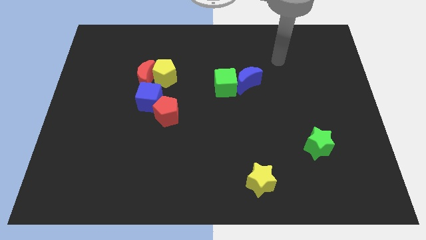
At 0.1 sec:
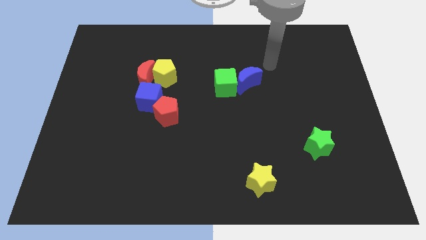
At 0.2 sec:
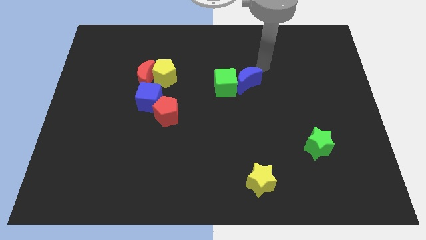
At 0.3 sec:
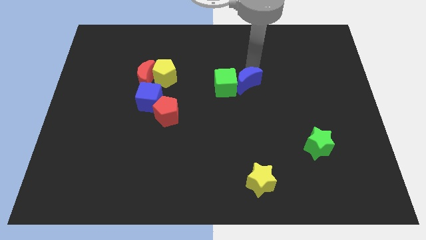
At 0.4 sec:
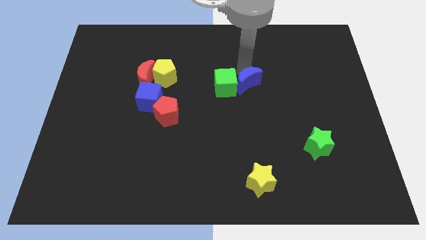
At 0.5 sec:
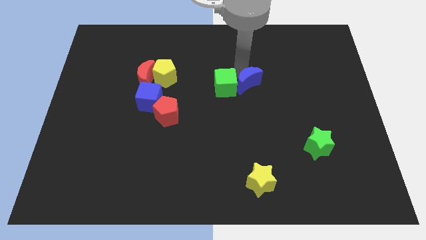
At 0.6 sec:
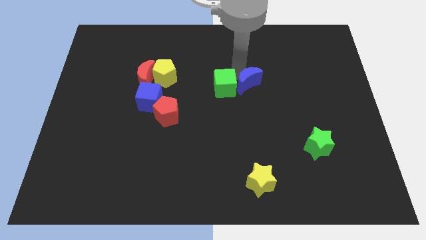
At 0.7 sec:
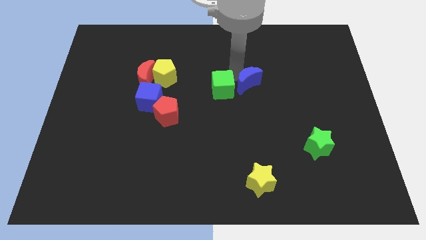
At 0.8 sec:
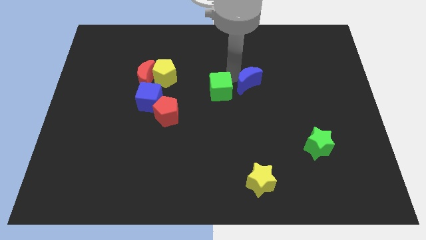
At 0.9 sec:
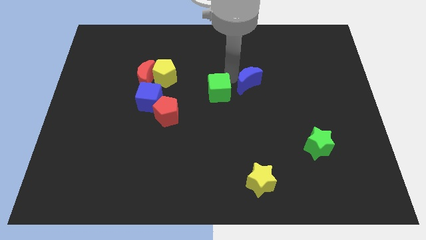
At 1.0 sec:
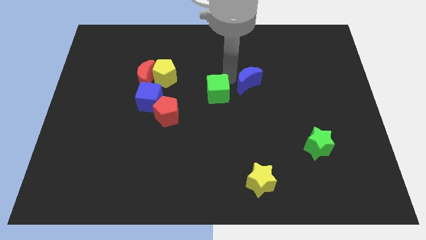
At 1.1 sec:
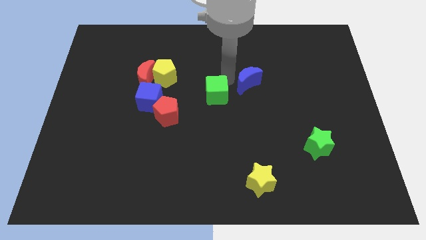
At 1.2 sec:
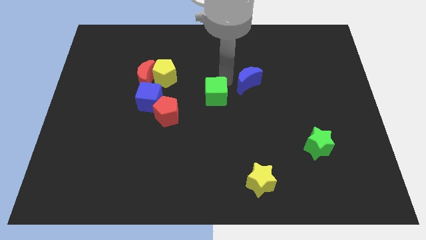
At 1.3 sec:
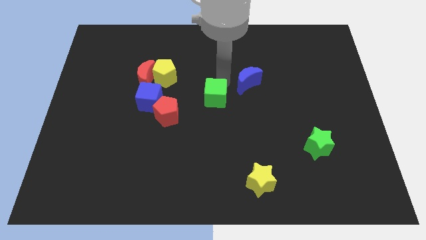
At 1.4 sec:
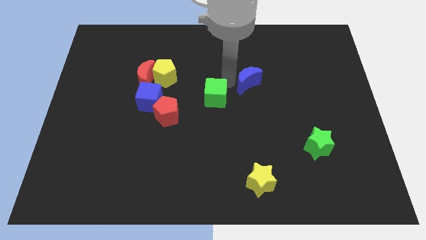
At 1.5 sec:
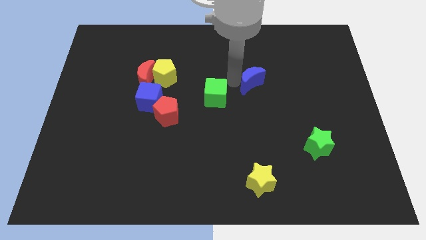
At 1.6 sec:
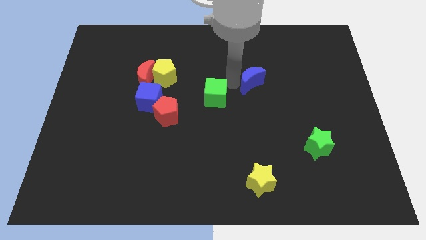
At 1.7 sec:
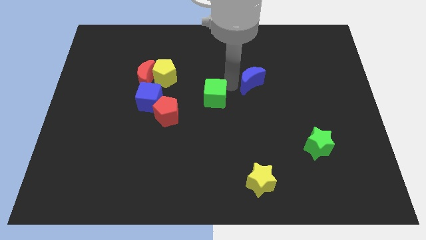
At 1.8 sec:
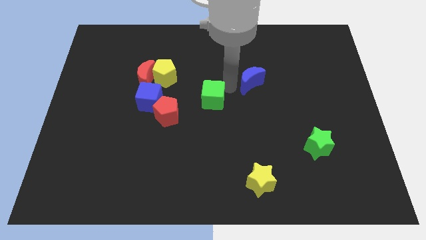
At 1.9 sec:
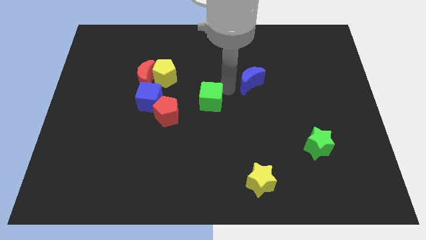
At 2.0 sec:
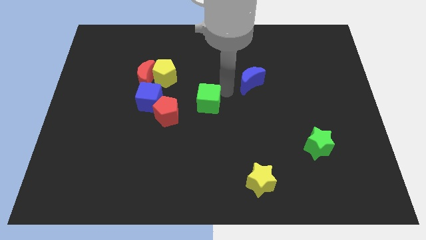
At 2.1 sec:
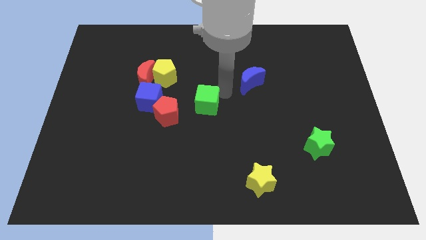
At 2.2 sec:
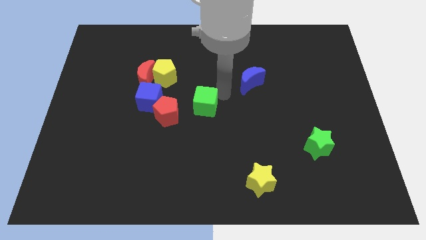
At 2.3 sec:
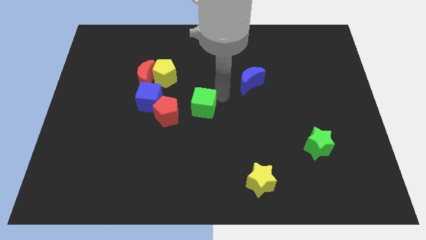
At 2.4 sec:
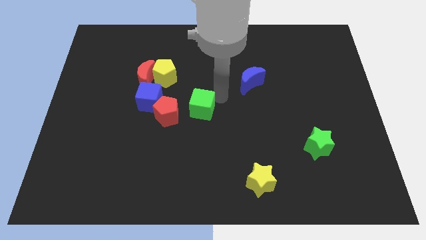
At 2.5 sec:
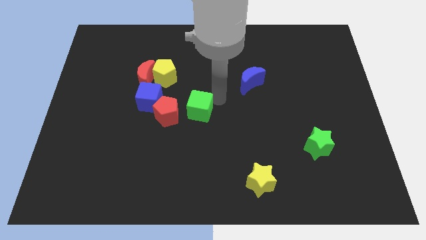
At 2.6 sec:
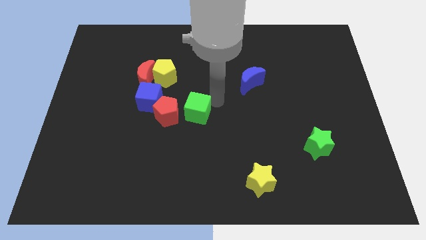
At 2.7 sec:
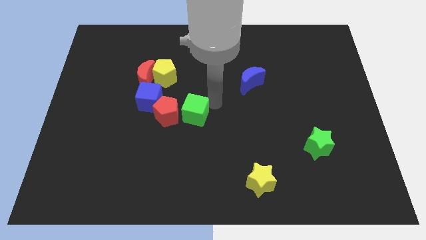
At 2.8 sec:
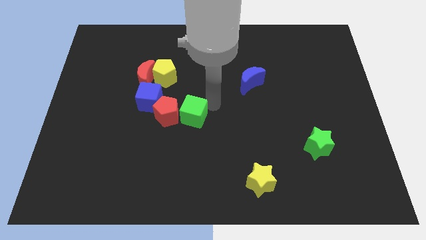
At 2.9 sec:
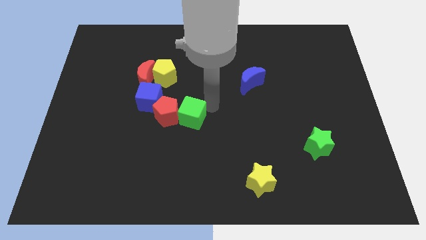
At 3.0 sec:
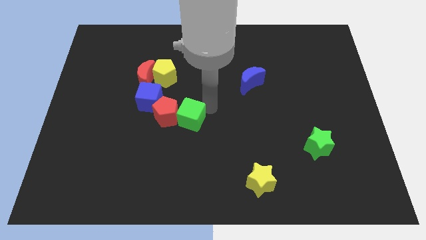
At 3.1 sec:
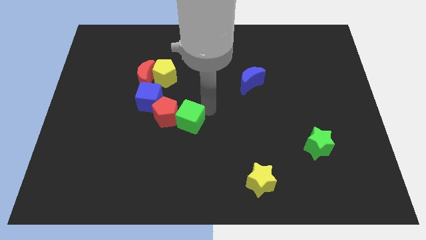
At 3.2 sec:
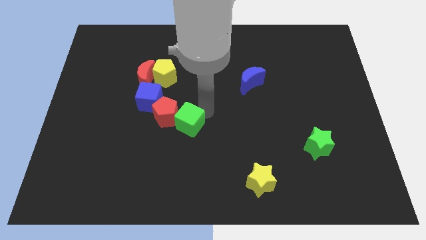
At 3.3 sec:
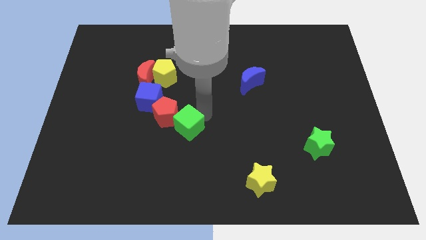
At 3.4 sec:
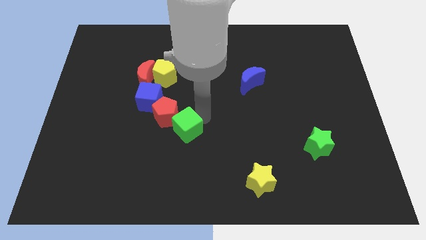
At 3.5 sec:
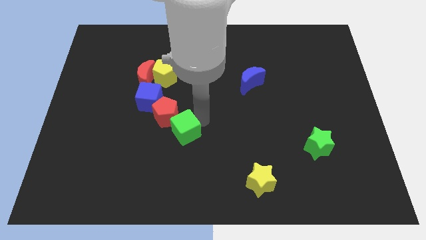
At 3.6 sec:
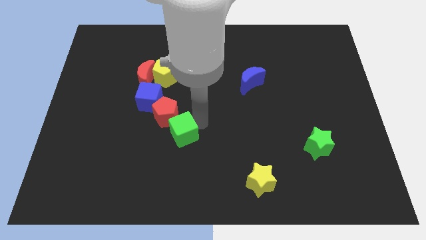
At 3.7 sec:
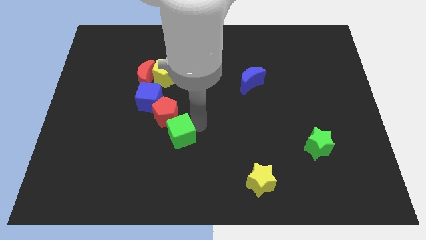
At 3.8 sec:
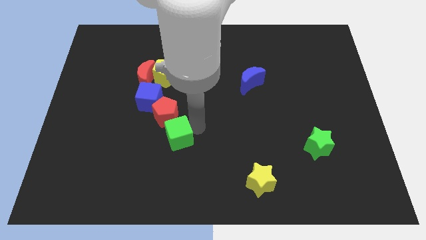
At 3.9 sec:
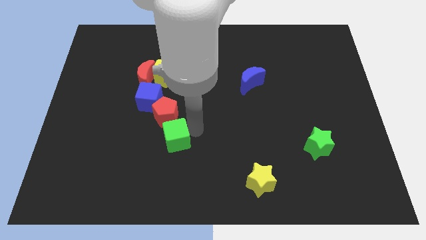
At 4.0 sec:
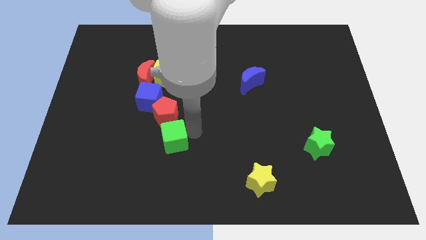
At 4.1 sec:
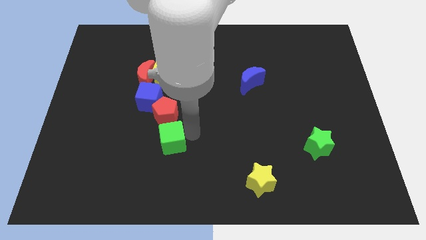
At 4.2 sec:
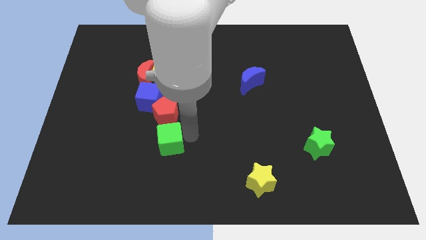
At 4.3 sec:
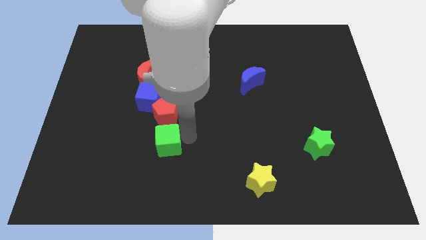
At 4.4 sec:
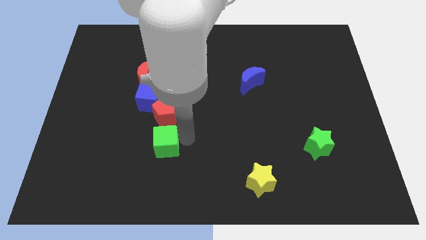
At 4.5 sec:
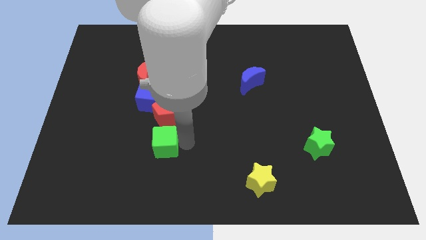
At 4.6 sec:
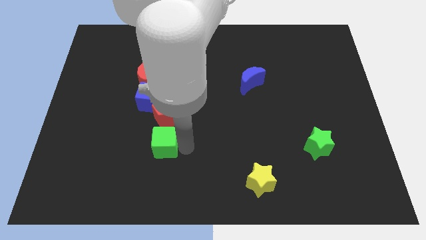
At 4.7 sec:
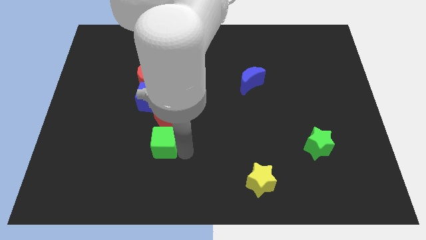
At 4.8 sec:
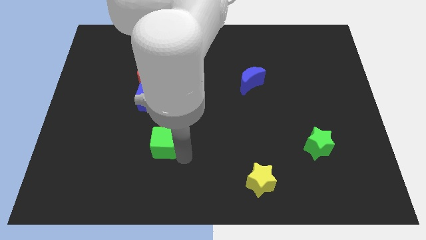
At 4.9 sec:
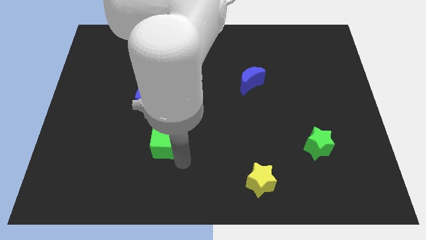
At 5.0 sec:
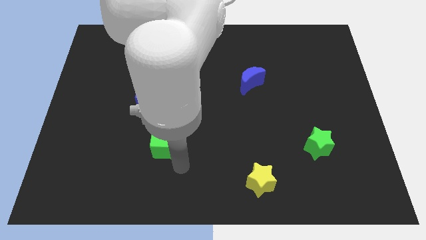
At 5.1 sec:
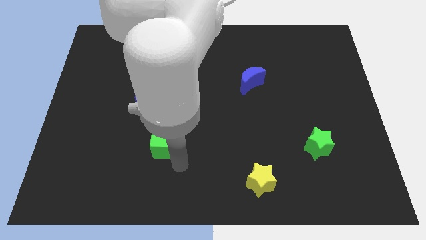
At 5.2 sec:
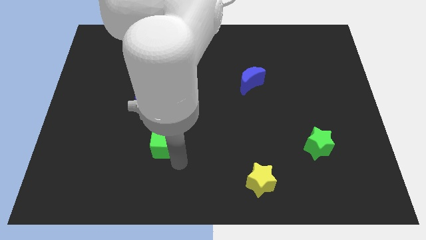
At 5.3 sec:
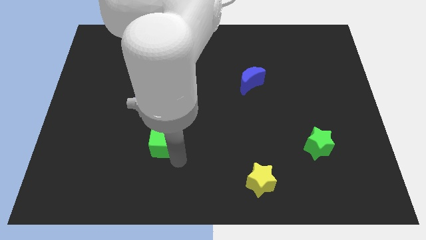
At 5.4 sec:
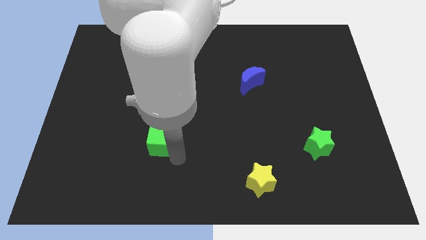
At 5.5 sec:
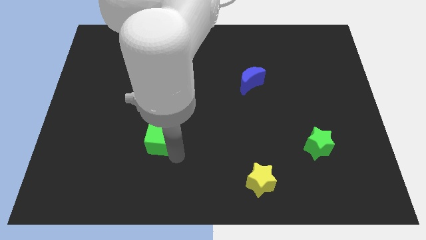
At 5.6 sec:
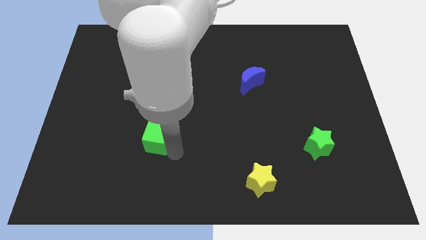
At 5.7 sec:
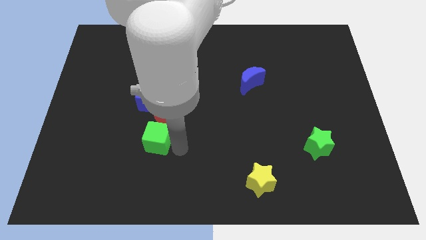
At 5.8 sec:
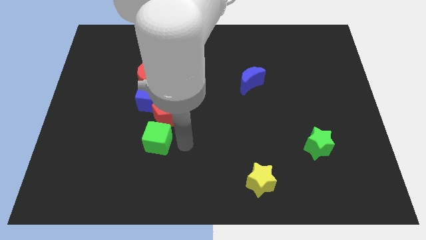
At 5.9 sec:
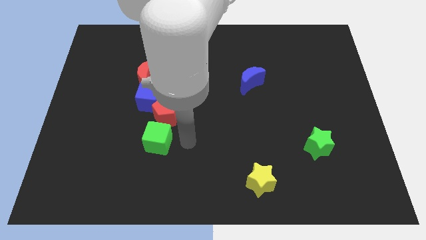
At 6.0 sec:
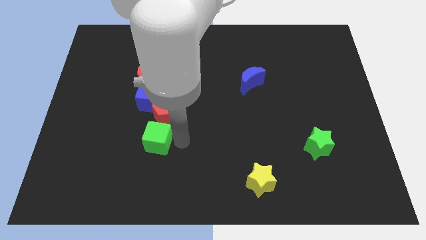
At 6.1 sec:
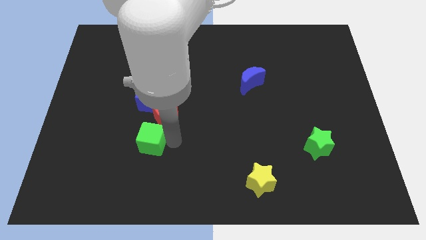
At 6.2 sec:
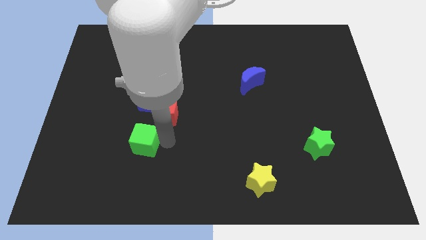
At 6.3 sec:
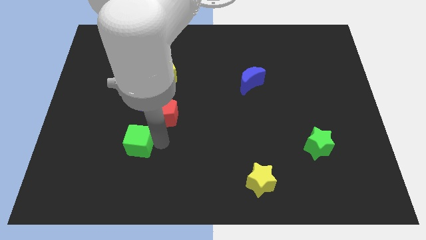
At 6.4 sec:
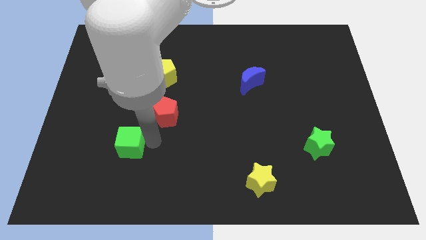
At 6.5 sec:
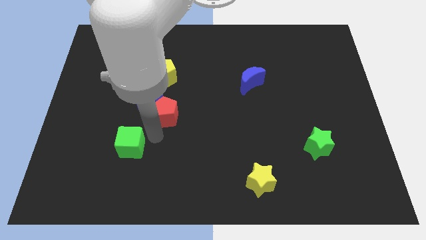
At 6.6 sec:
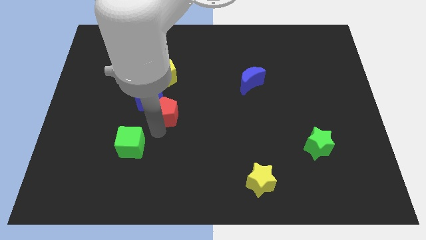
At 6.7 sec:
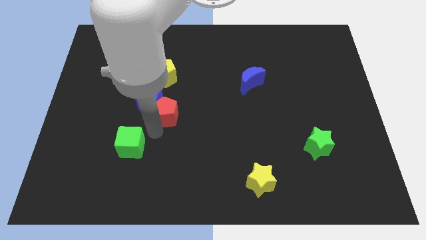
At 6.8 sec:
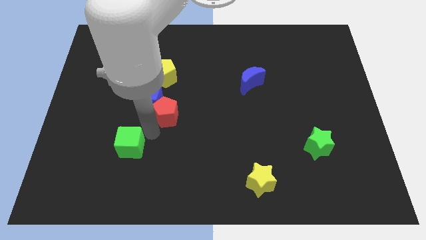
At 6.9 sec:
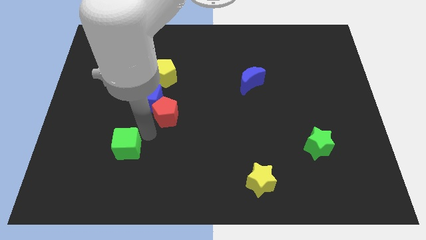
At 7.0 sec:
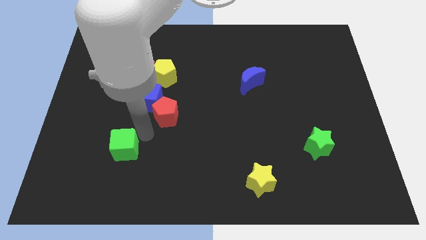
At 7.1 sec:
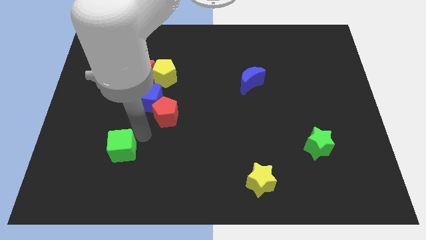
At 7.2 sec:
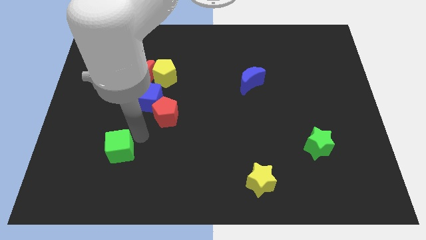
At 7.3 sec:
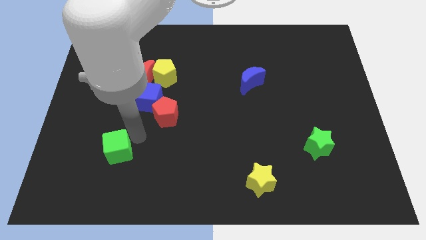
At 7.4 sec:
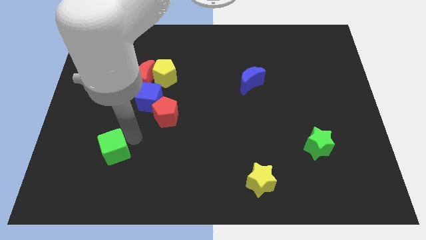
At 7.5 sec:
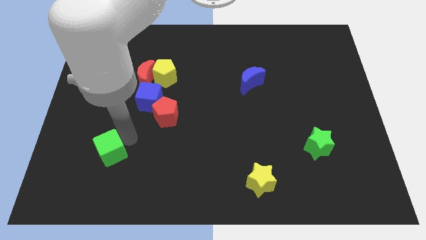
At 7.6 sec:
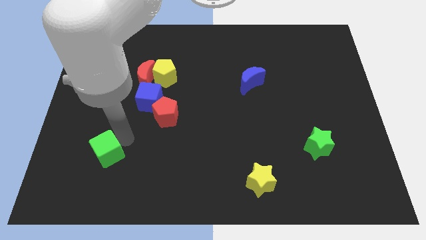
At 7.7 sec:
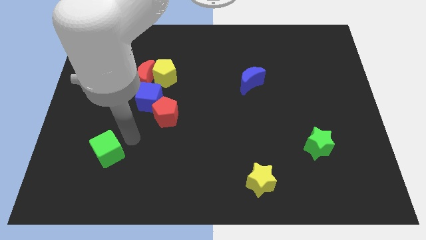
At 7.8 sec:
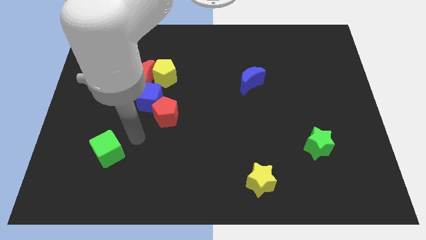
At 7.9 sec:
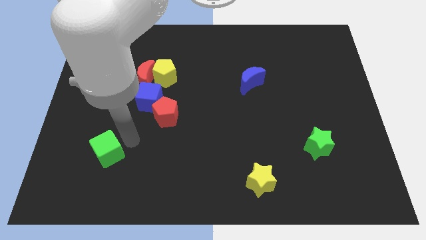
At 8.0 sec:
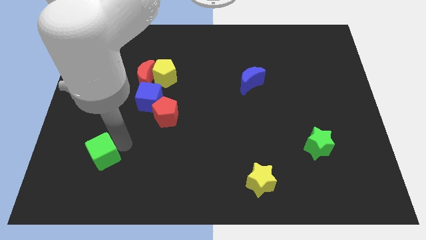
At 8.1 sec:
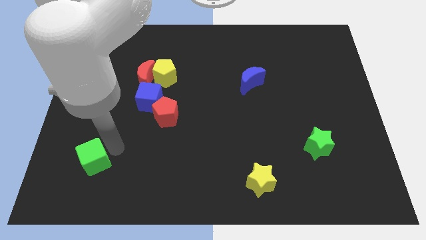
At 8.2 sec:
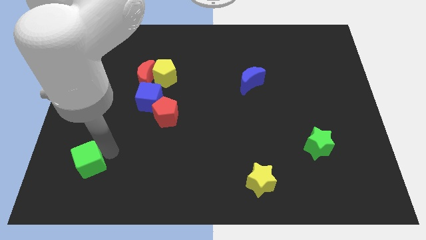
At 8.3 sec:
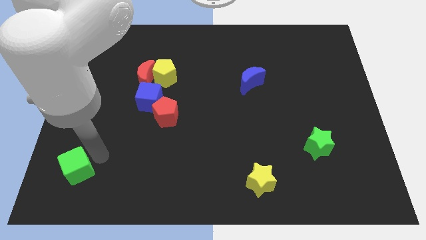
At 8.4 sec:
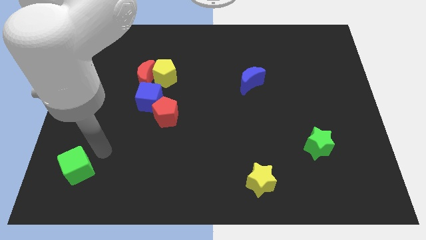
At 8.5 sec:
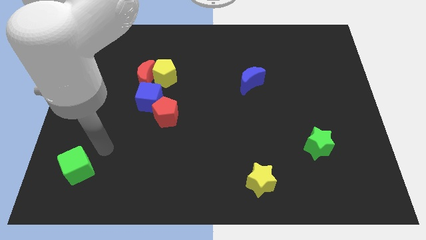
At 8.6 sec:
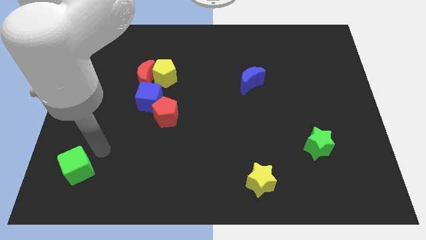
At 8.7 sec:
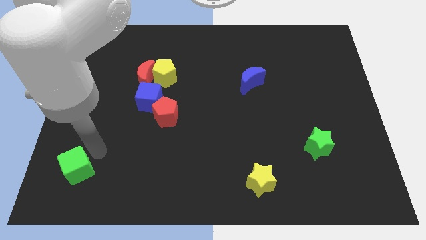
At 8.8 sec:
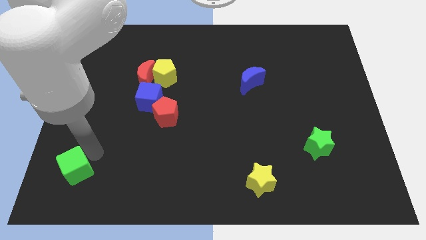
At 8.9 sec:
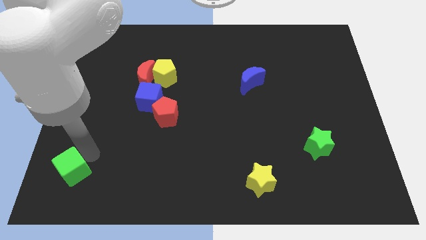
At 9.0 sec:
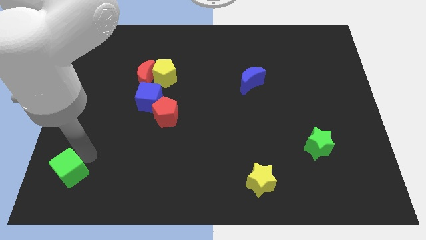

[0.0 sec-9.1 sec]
push the green cube to the lower left corner
